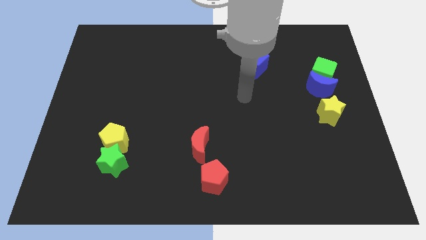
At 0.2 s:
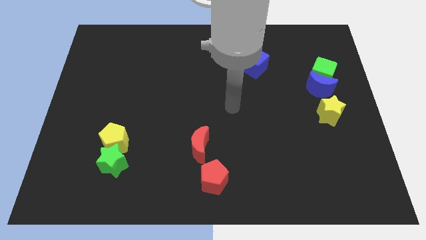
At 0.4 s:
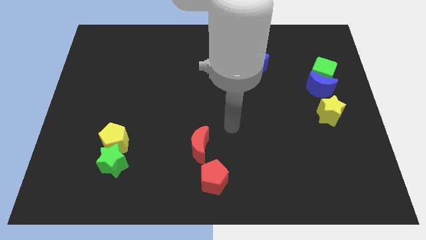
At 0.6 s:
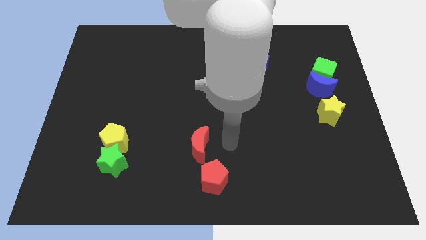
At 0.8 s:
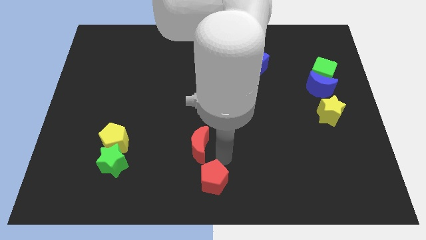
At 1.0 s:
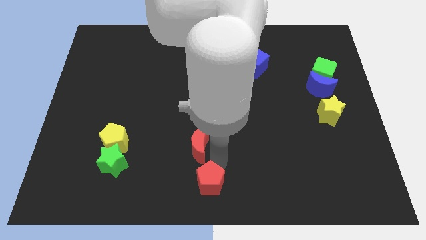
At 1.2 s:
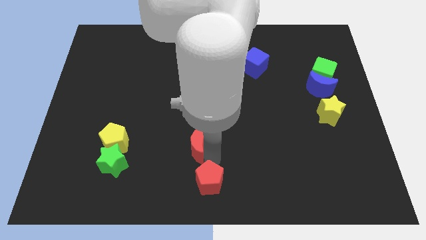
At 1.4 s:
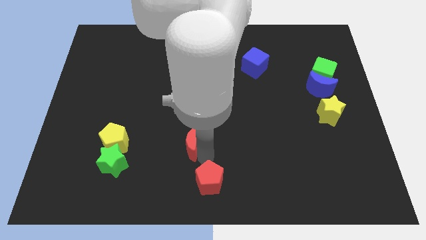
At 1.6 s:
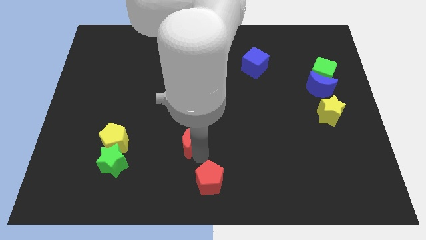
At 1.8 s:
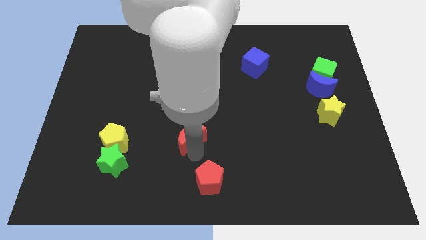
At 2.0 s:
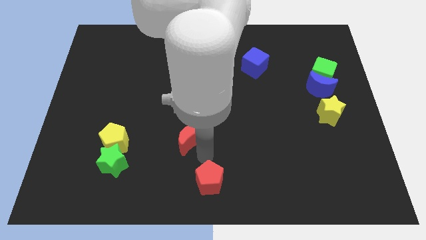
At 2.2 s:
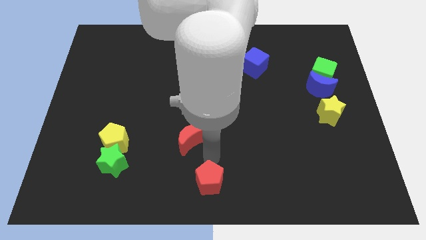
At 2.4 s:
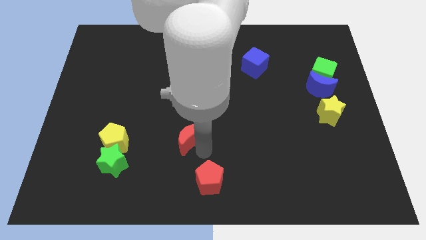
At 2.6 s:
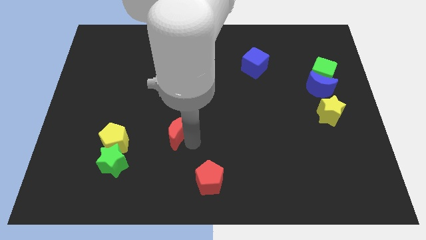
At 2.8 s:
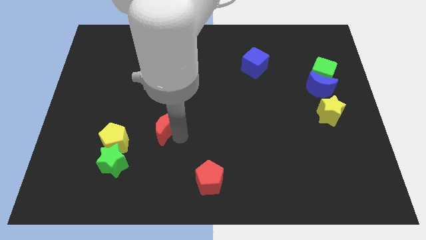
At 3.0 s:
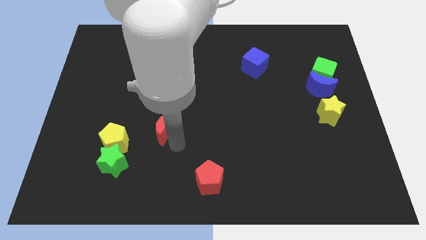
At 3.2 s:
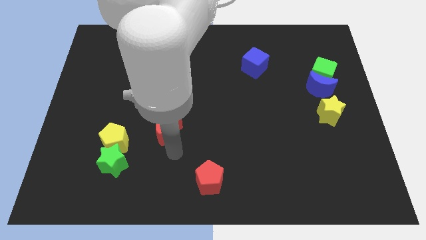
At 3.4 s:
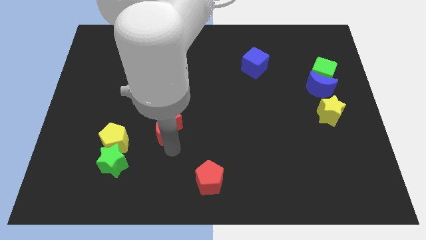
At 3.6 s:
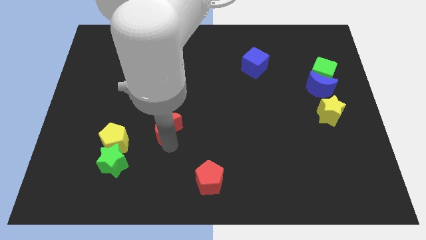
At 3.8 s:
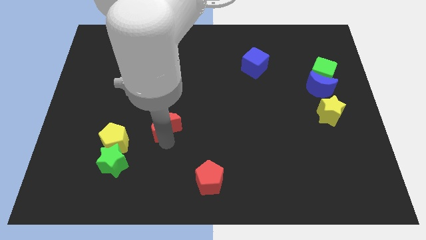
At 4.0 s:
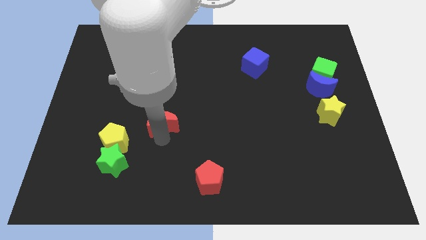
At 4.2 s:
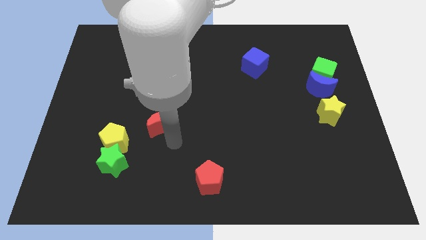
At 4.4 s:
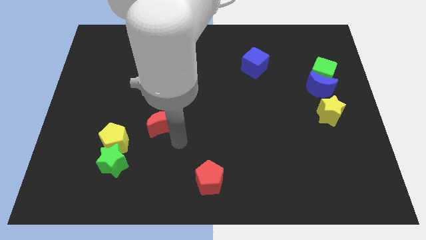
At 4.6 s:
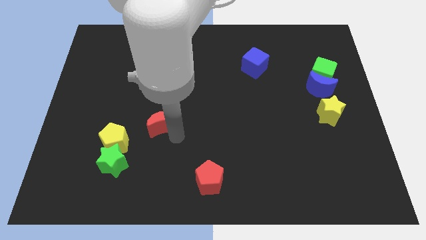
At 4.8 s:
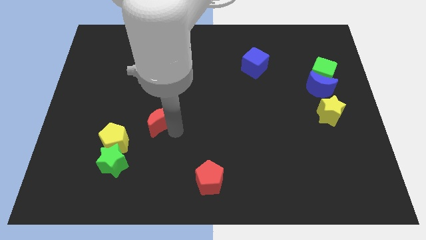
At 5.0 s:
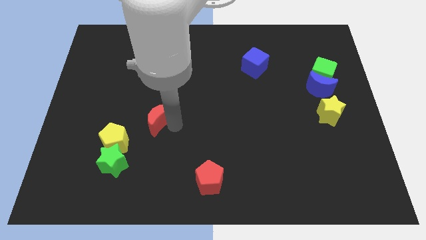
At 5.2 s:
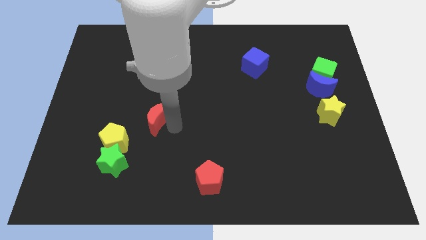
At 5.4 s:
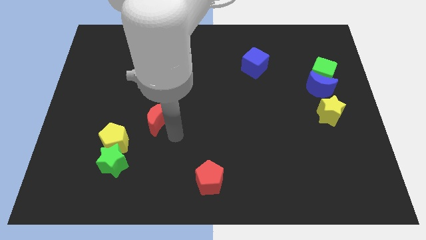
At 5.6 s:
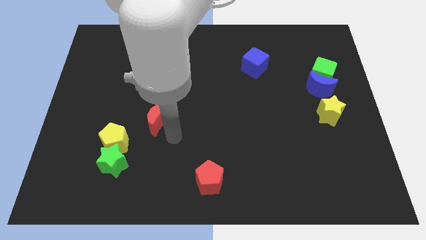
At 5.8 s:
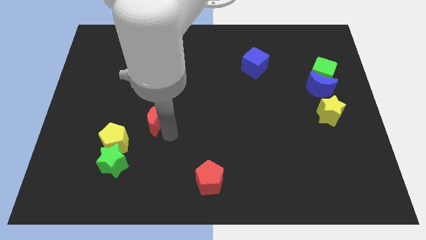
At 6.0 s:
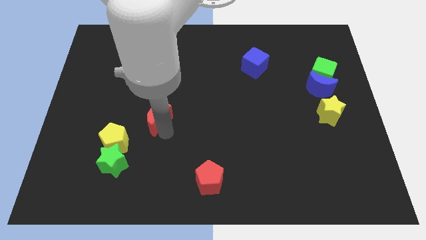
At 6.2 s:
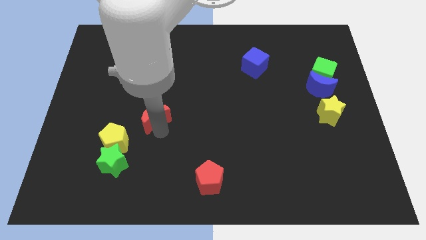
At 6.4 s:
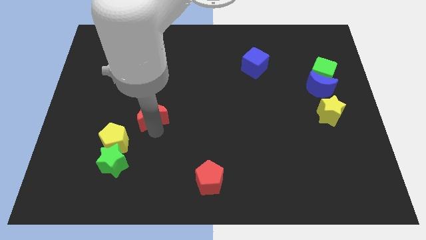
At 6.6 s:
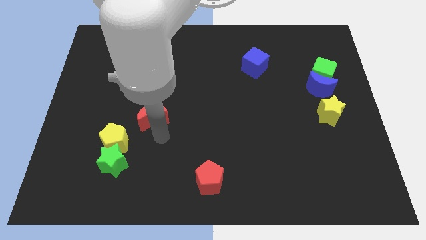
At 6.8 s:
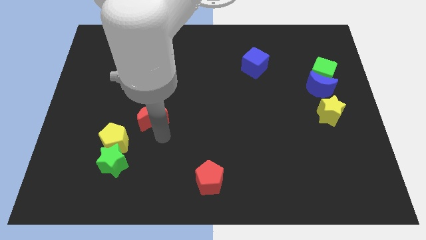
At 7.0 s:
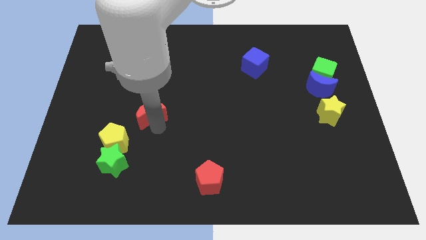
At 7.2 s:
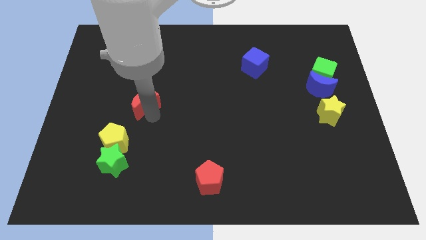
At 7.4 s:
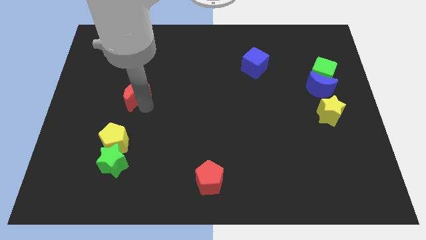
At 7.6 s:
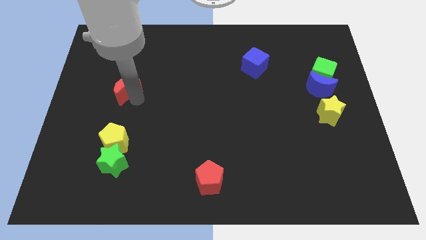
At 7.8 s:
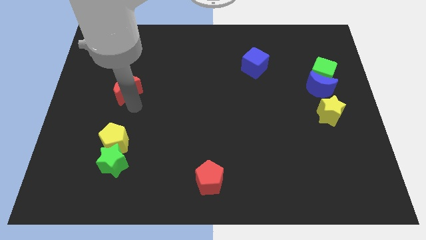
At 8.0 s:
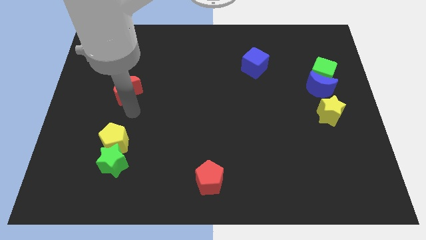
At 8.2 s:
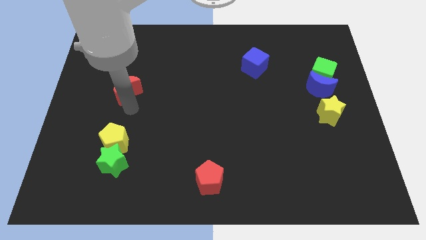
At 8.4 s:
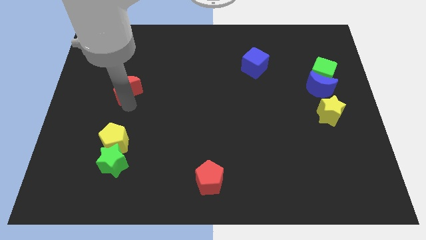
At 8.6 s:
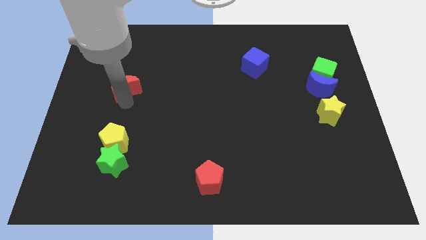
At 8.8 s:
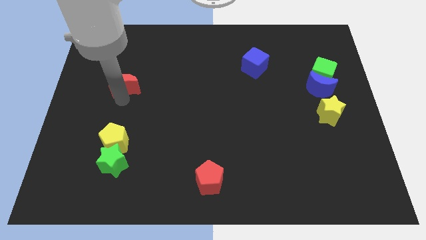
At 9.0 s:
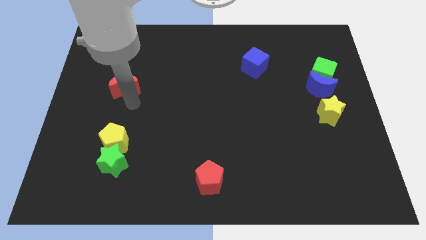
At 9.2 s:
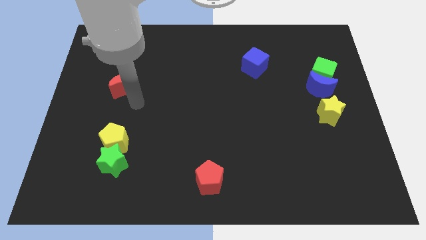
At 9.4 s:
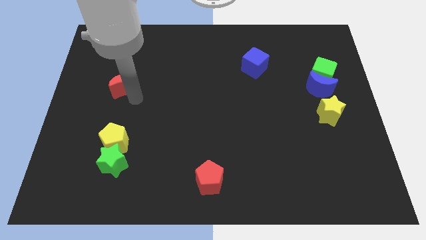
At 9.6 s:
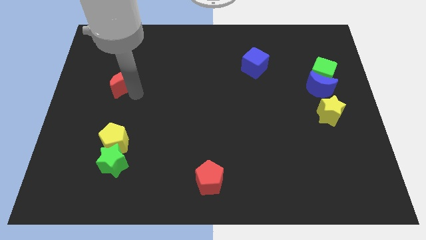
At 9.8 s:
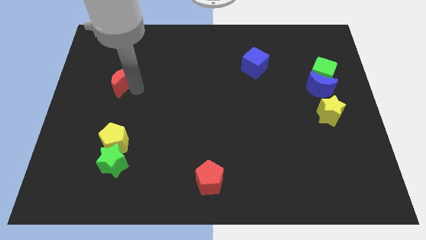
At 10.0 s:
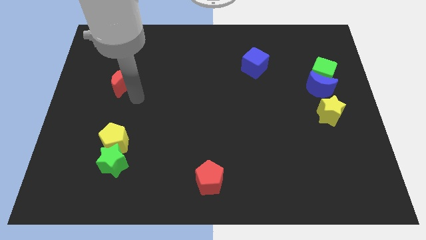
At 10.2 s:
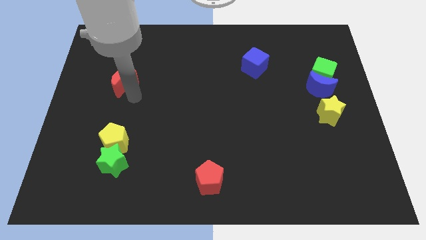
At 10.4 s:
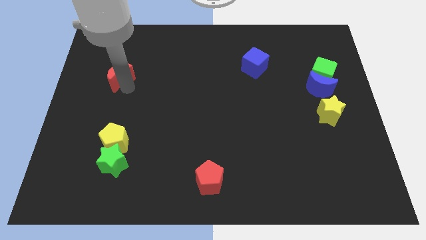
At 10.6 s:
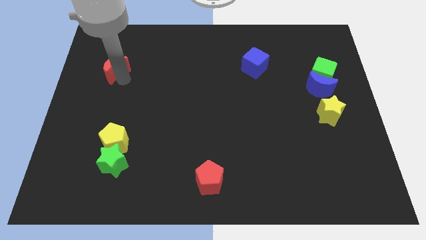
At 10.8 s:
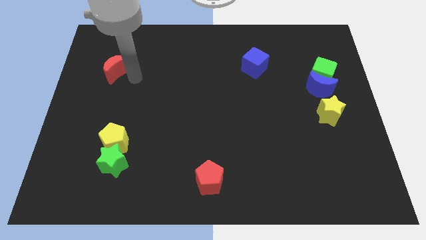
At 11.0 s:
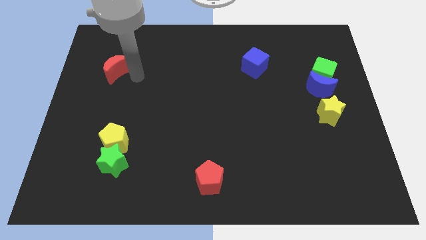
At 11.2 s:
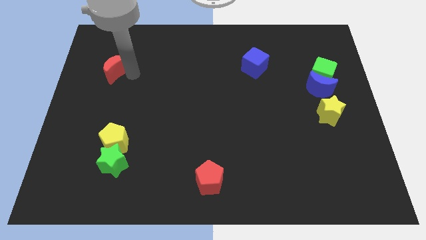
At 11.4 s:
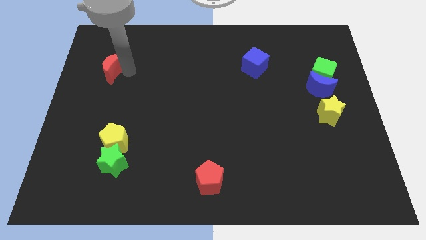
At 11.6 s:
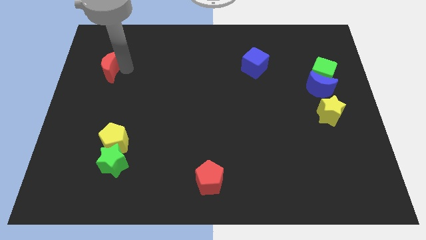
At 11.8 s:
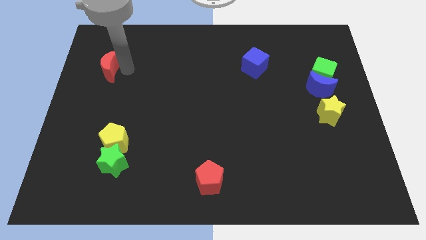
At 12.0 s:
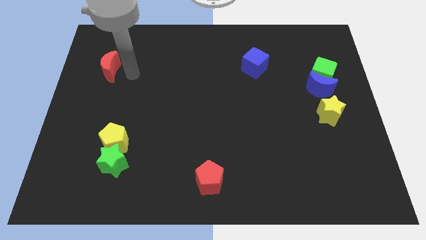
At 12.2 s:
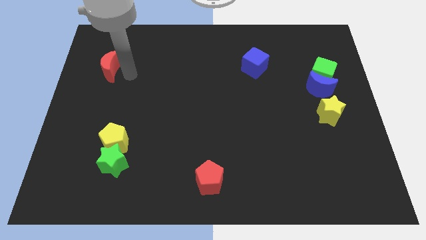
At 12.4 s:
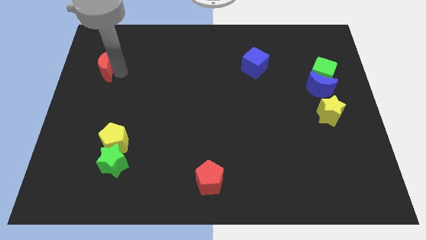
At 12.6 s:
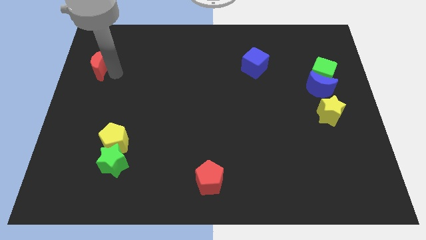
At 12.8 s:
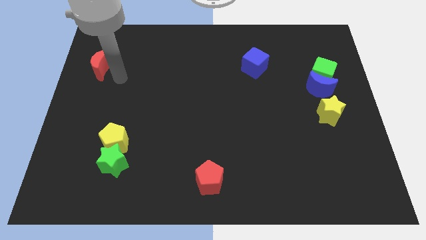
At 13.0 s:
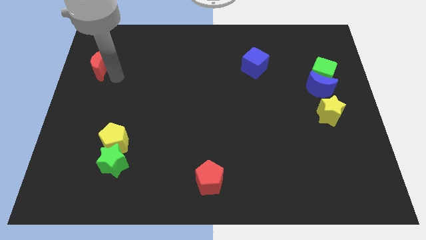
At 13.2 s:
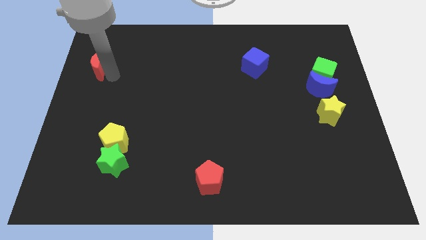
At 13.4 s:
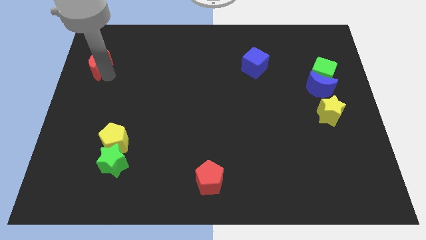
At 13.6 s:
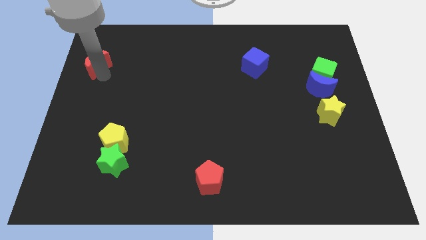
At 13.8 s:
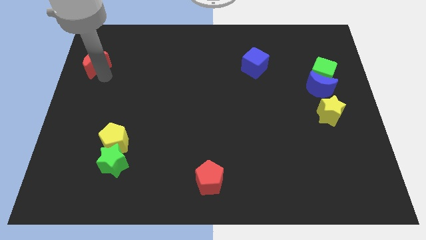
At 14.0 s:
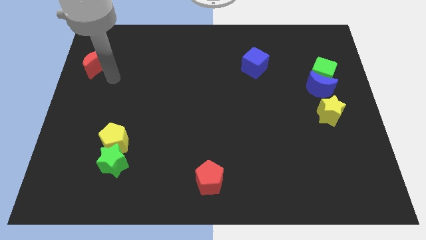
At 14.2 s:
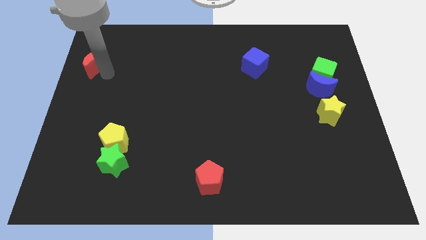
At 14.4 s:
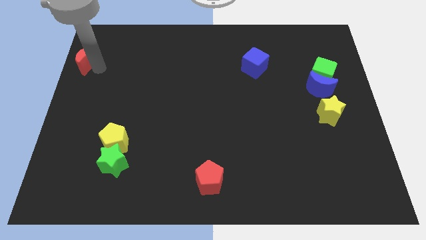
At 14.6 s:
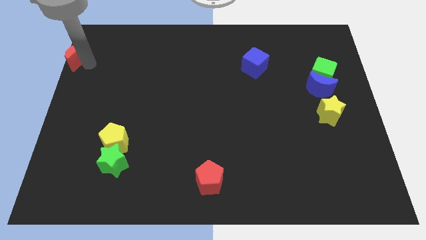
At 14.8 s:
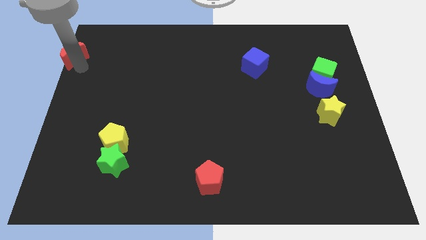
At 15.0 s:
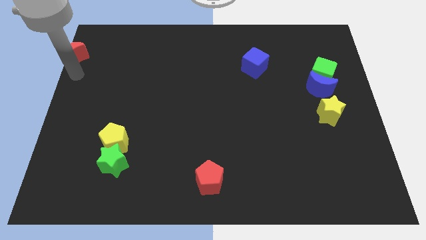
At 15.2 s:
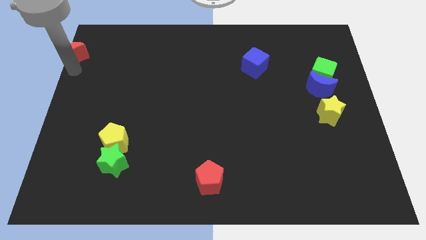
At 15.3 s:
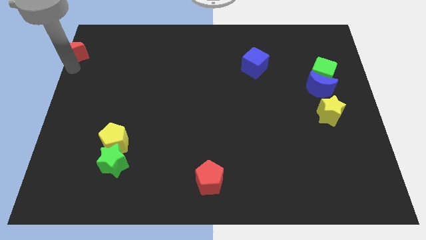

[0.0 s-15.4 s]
put the red moon to the upper left corner
